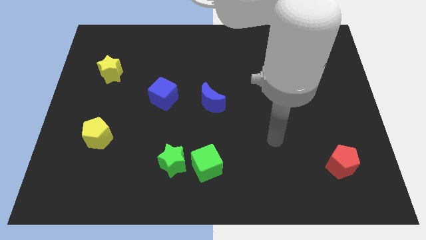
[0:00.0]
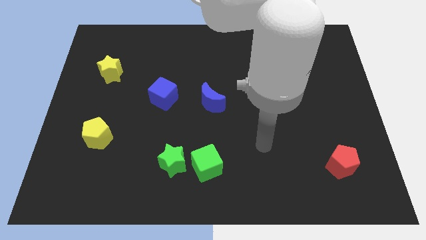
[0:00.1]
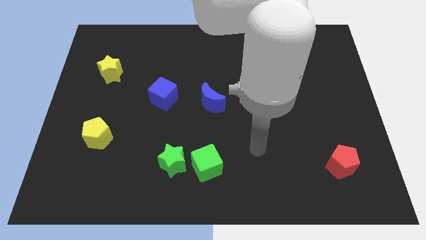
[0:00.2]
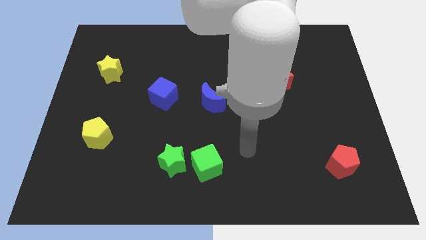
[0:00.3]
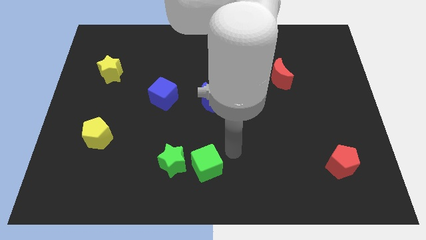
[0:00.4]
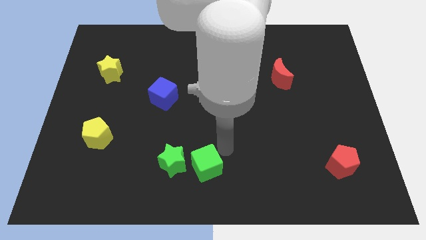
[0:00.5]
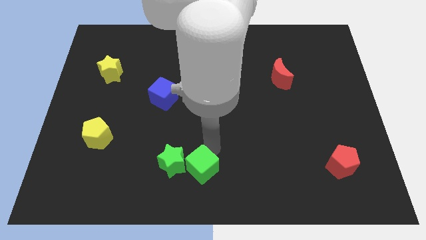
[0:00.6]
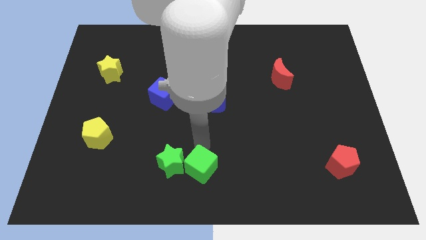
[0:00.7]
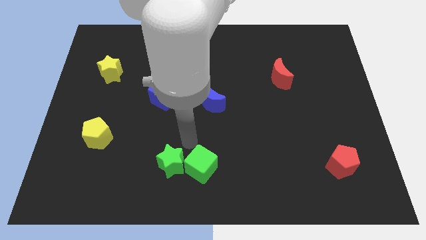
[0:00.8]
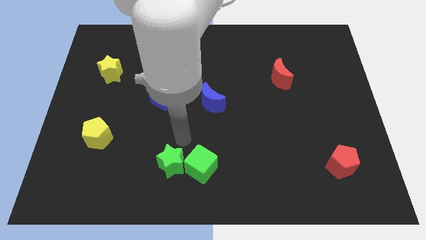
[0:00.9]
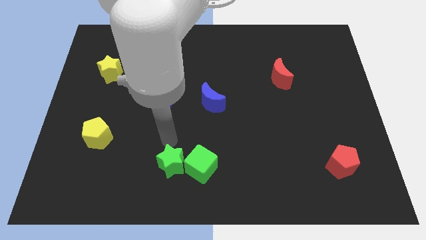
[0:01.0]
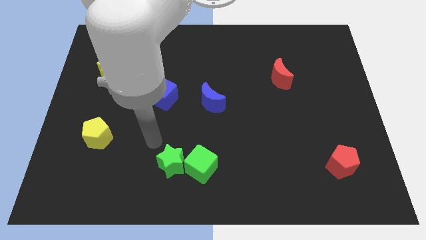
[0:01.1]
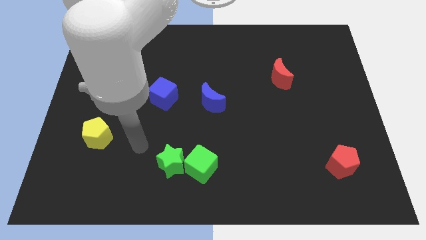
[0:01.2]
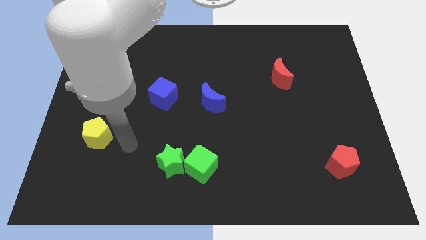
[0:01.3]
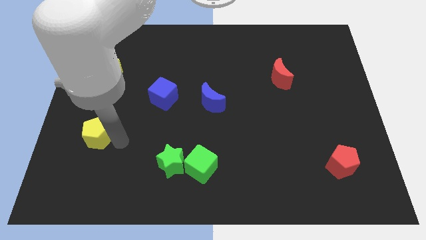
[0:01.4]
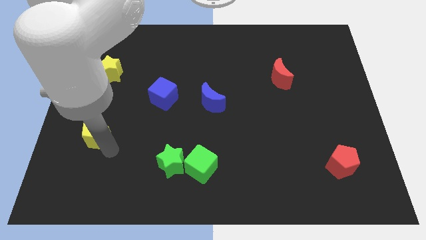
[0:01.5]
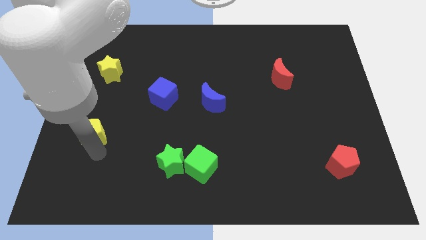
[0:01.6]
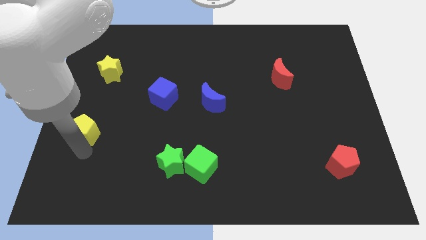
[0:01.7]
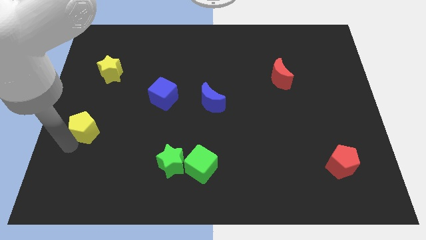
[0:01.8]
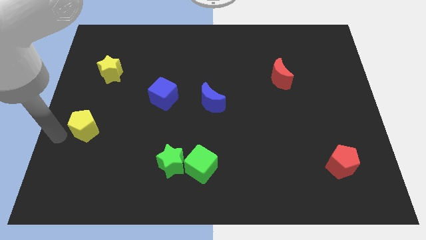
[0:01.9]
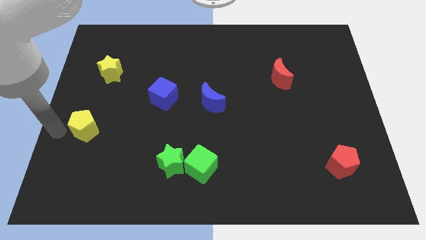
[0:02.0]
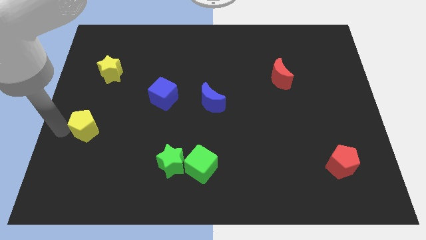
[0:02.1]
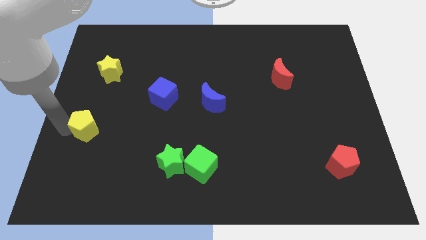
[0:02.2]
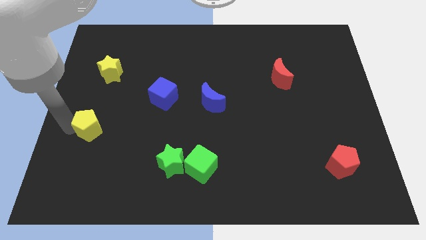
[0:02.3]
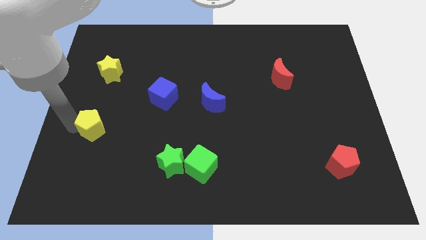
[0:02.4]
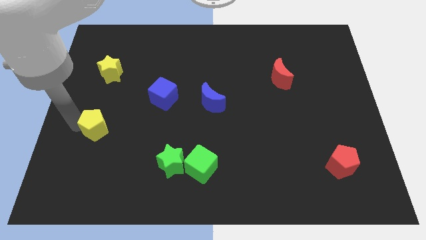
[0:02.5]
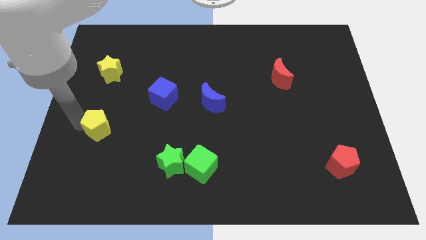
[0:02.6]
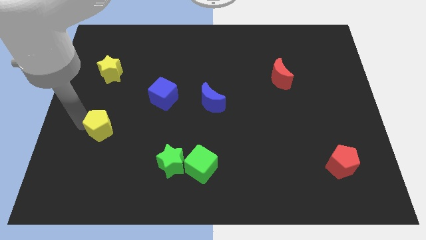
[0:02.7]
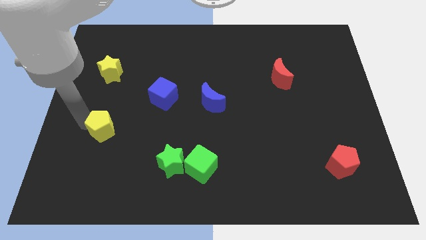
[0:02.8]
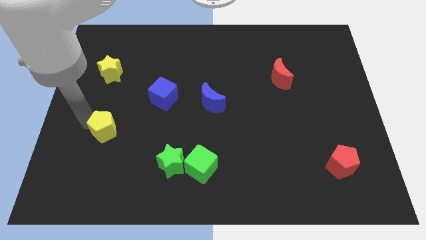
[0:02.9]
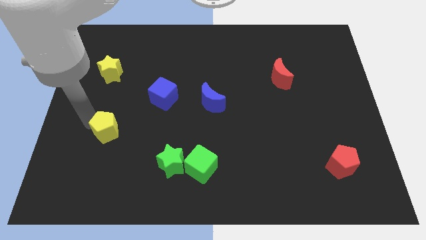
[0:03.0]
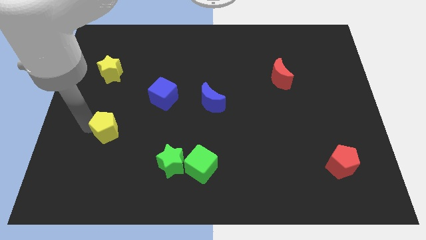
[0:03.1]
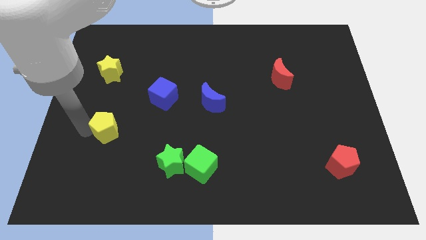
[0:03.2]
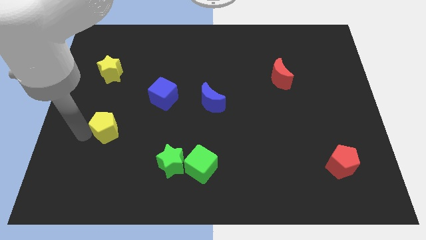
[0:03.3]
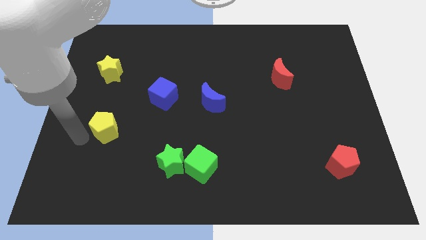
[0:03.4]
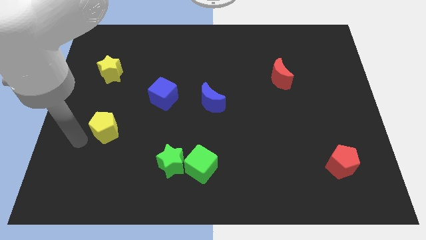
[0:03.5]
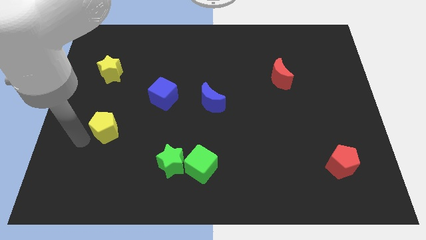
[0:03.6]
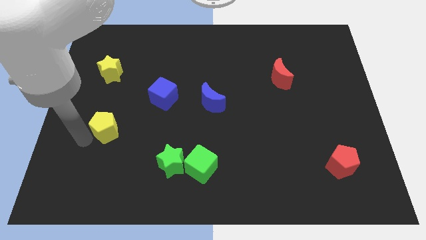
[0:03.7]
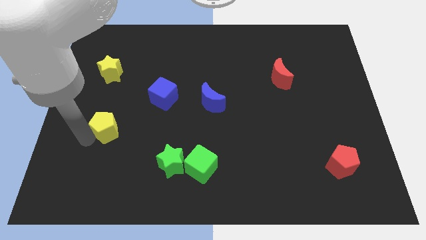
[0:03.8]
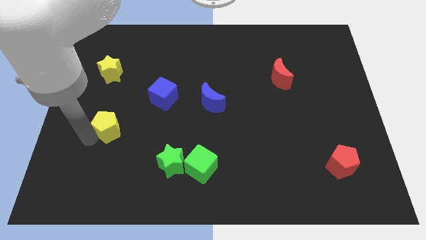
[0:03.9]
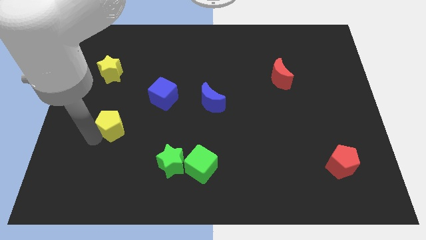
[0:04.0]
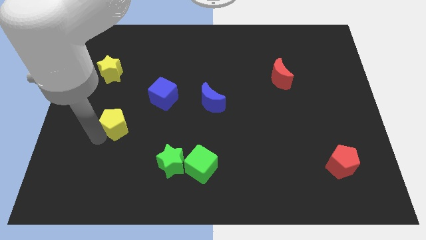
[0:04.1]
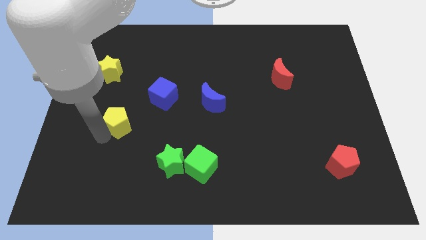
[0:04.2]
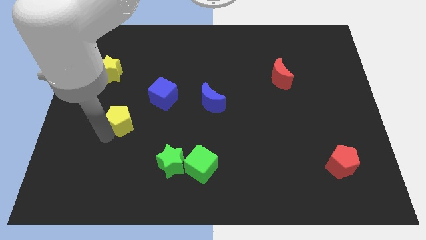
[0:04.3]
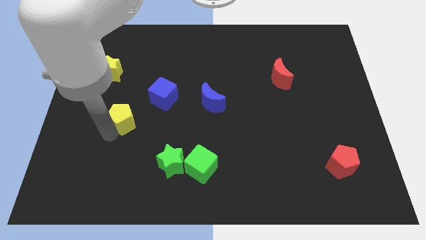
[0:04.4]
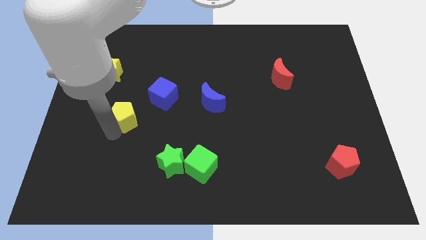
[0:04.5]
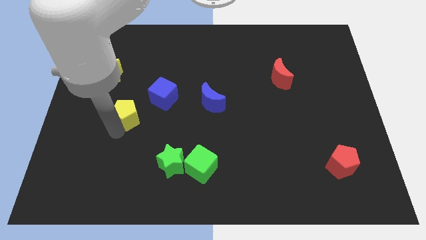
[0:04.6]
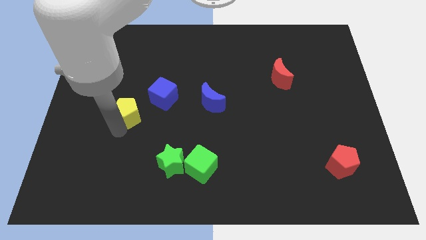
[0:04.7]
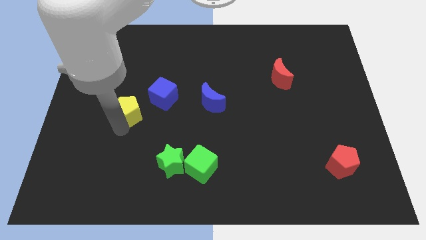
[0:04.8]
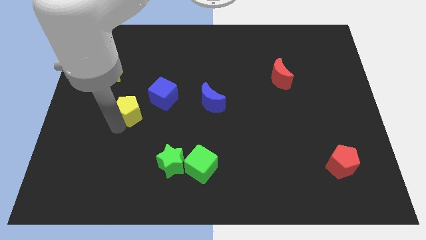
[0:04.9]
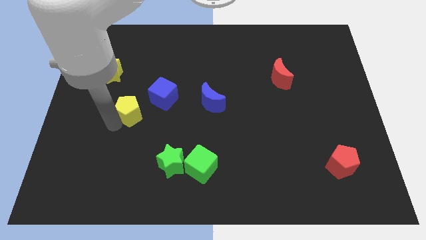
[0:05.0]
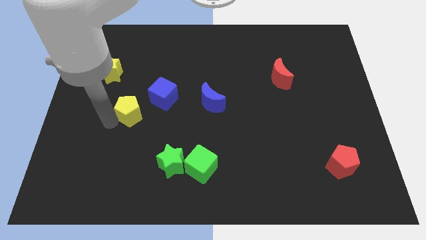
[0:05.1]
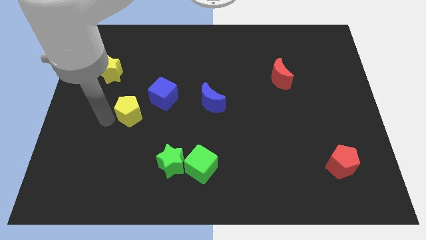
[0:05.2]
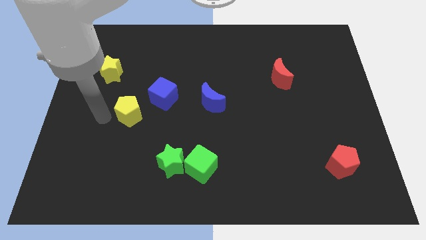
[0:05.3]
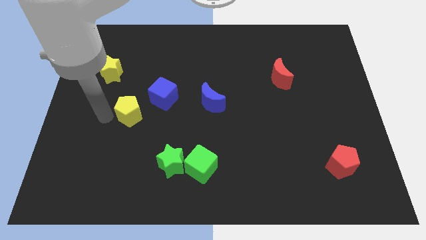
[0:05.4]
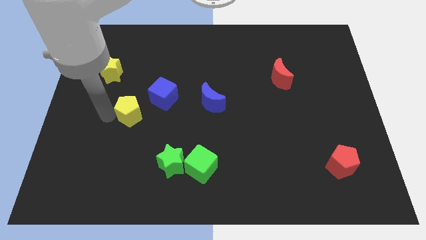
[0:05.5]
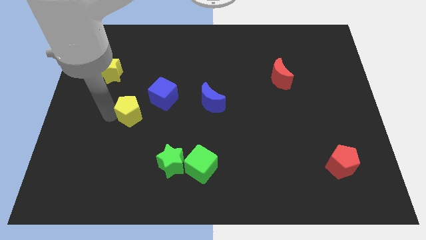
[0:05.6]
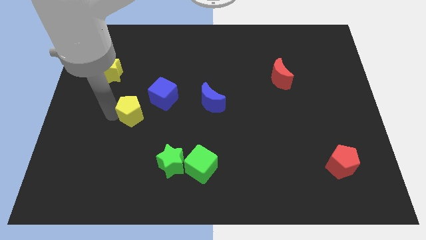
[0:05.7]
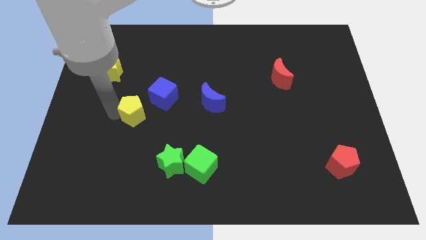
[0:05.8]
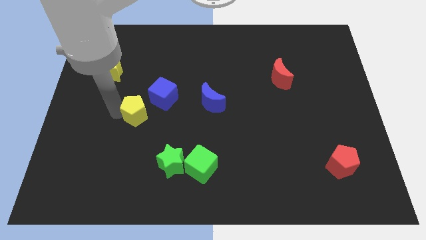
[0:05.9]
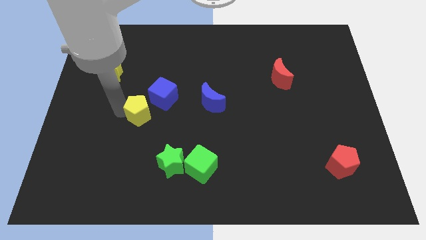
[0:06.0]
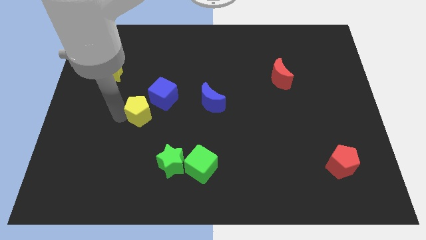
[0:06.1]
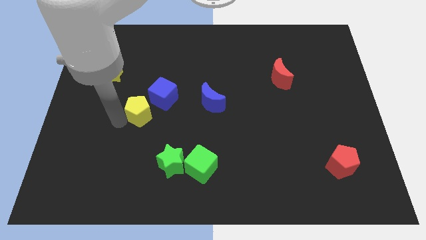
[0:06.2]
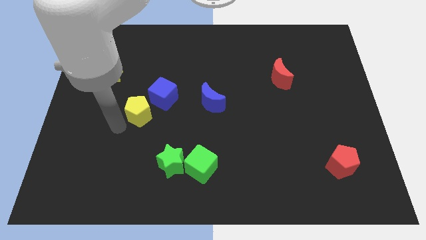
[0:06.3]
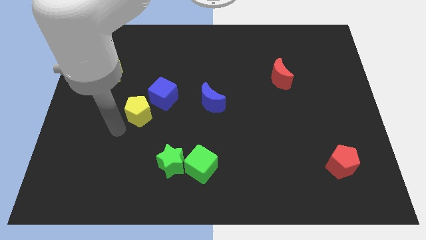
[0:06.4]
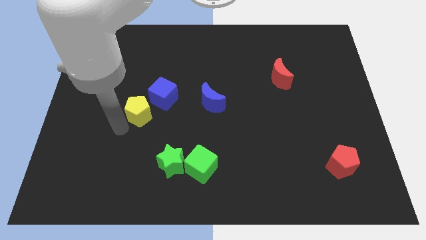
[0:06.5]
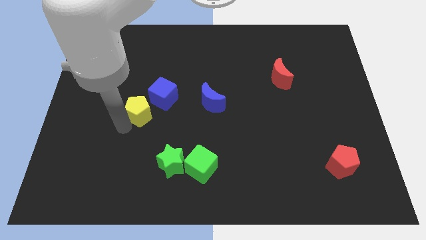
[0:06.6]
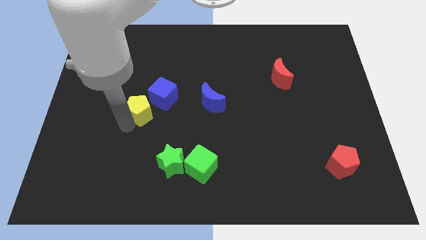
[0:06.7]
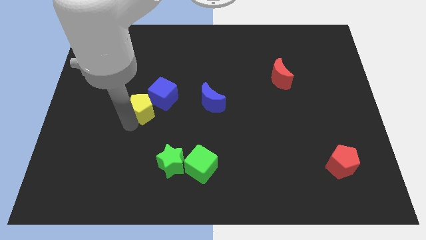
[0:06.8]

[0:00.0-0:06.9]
slide the yellow pentagon to the blue cube
